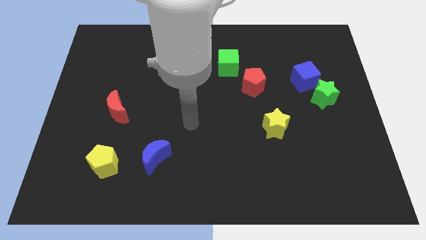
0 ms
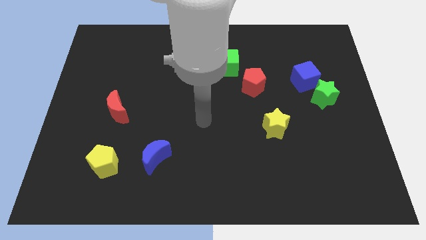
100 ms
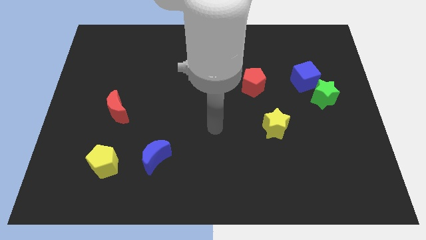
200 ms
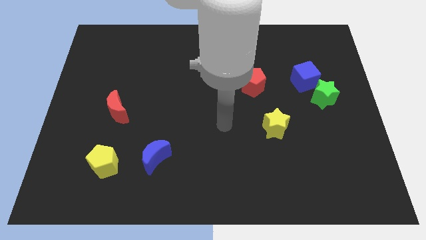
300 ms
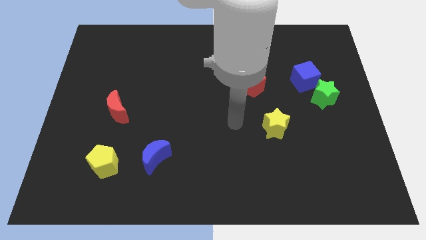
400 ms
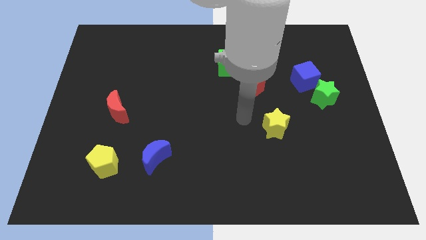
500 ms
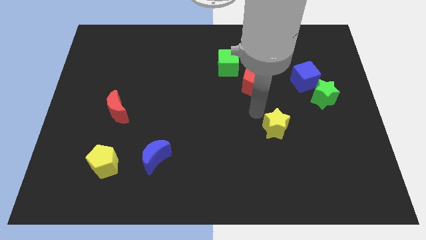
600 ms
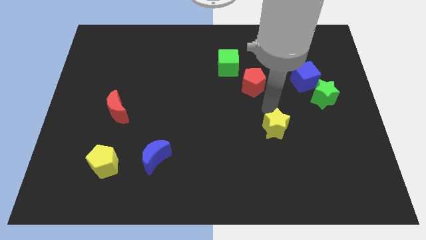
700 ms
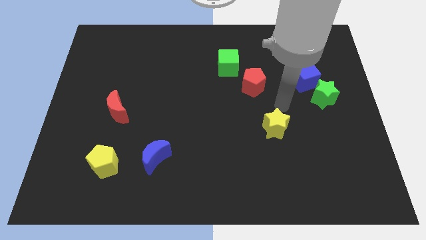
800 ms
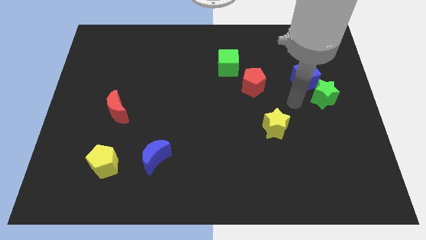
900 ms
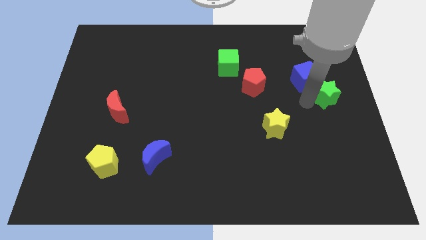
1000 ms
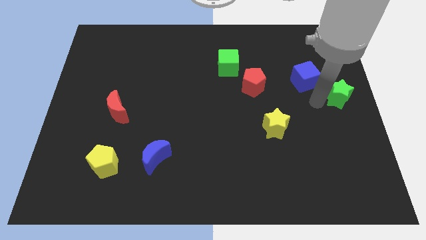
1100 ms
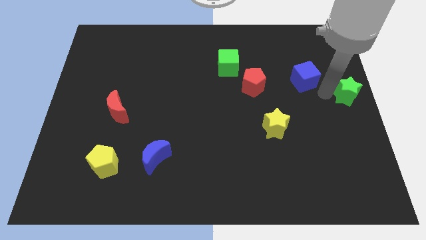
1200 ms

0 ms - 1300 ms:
move the blue cube away from the green star

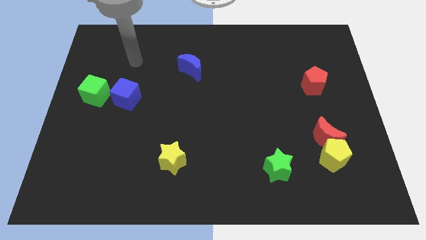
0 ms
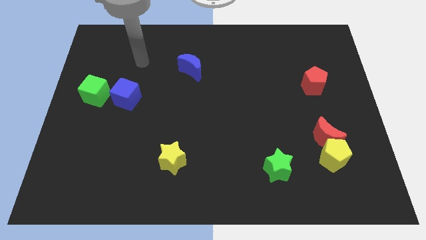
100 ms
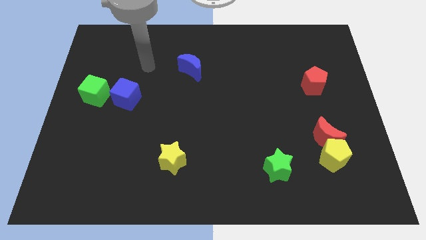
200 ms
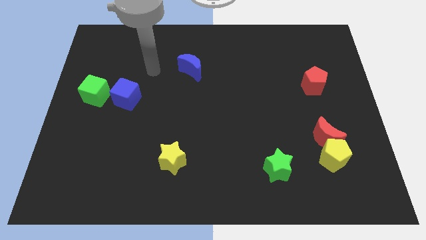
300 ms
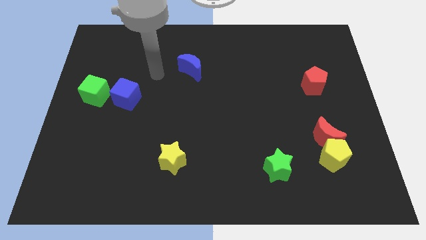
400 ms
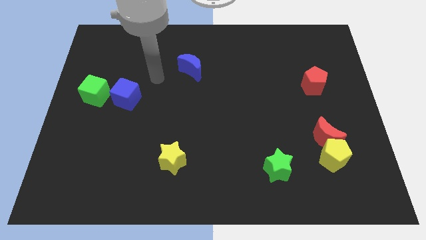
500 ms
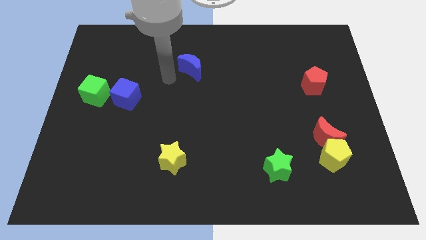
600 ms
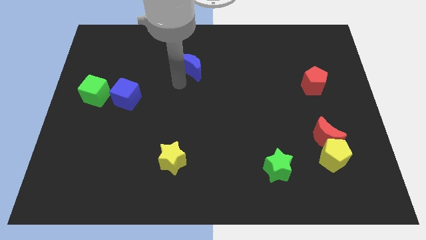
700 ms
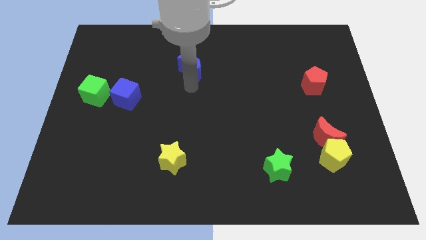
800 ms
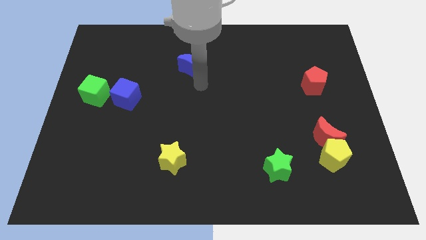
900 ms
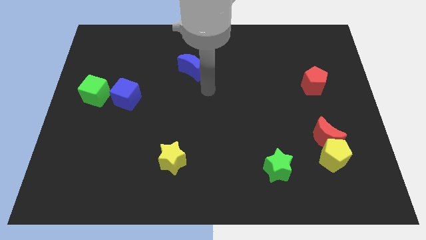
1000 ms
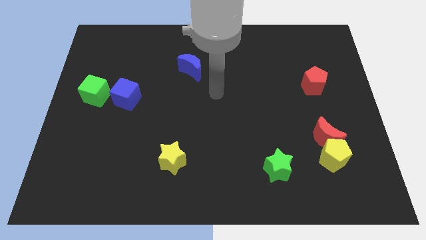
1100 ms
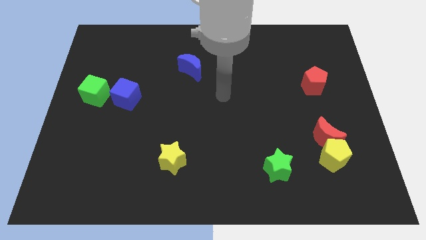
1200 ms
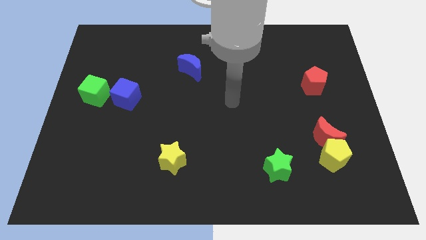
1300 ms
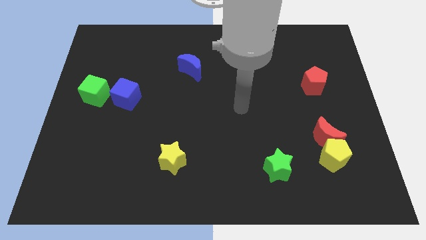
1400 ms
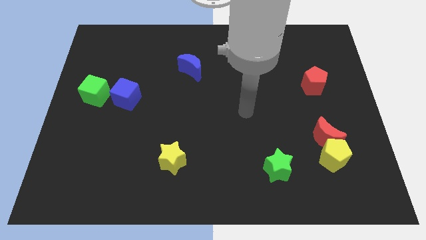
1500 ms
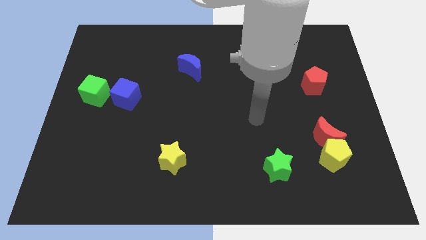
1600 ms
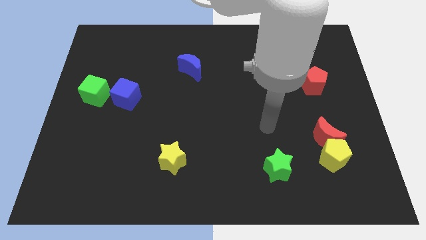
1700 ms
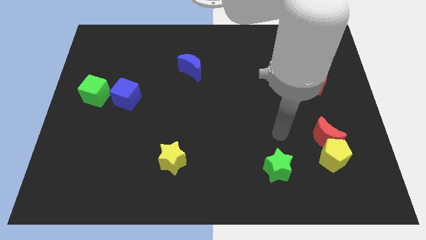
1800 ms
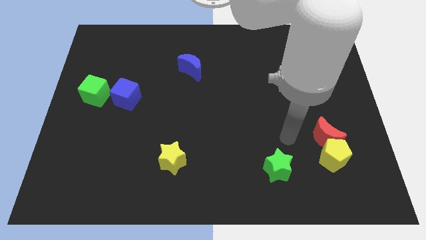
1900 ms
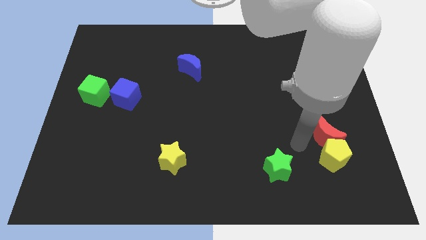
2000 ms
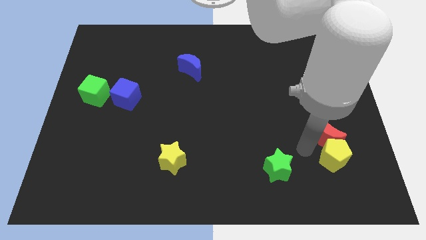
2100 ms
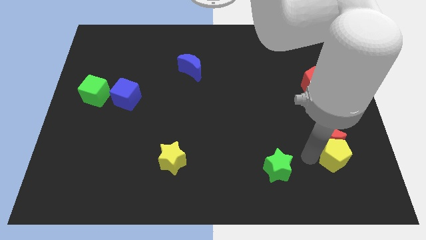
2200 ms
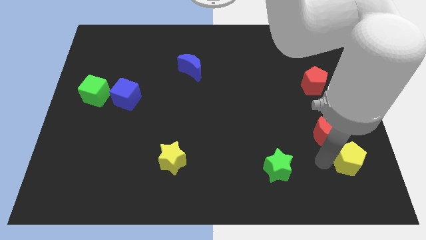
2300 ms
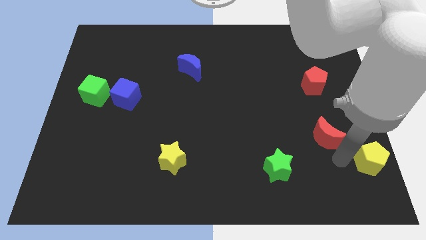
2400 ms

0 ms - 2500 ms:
move the red moon away from the yellow pentagon

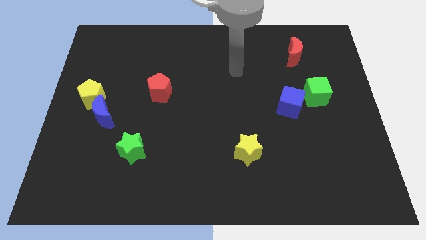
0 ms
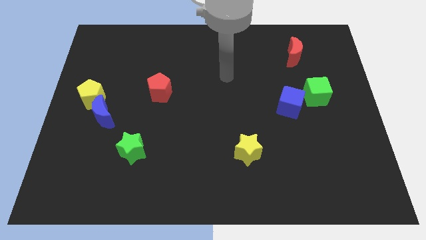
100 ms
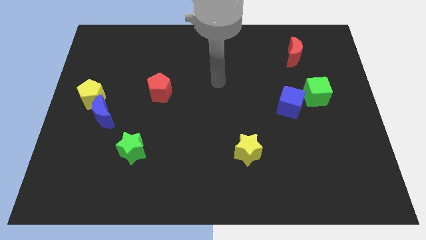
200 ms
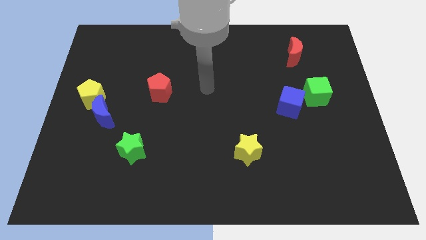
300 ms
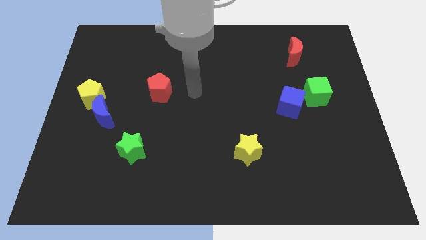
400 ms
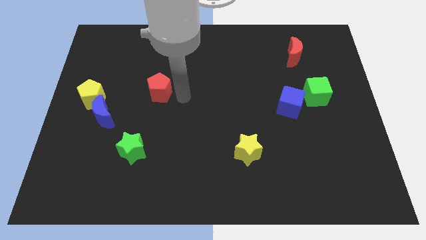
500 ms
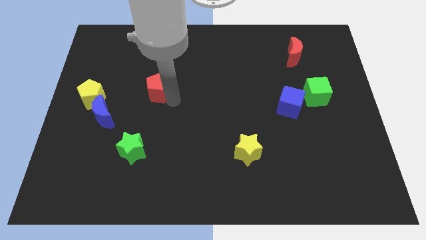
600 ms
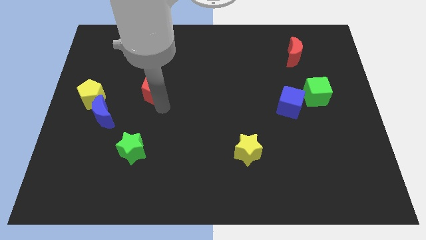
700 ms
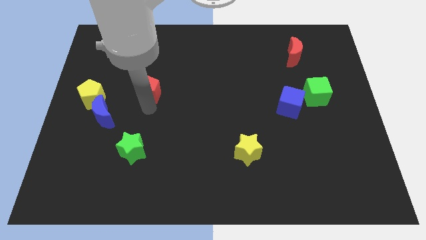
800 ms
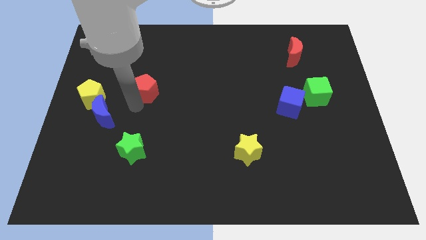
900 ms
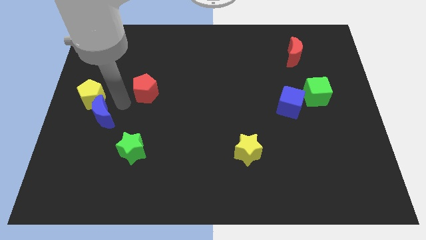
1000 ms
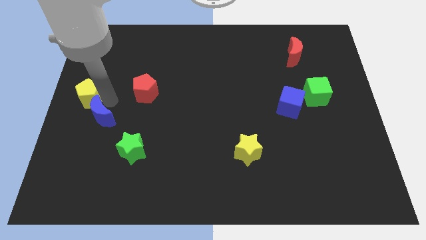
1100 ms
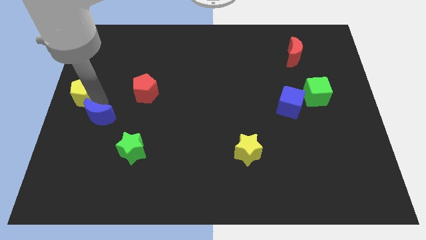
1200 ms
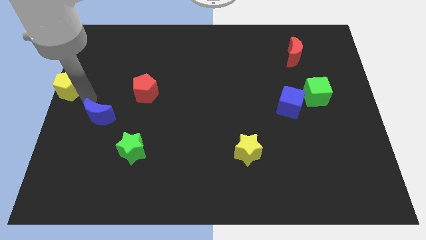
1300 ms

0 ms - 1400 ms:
move the blue moon away from the yellow pentagon

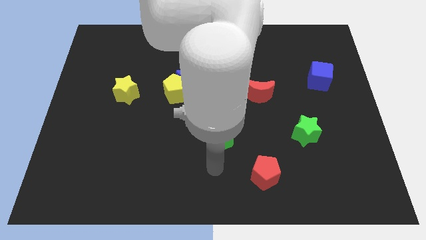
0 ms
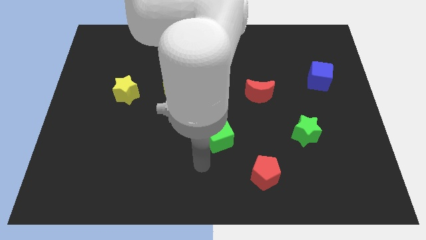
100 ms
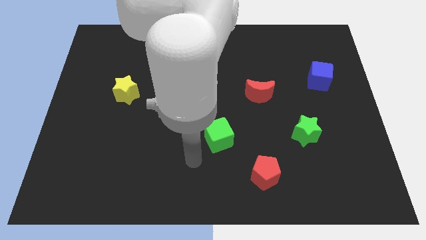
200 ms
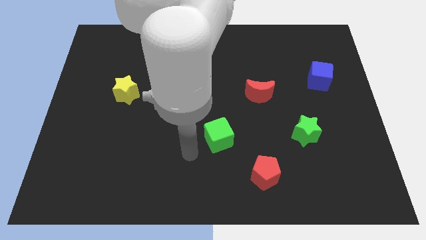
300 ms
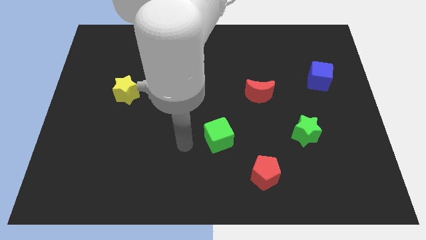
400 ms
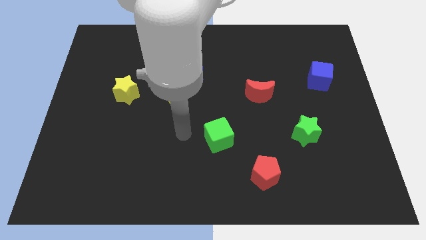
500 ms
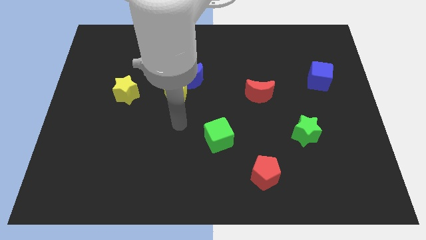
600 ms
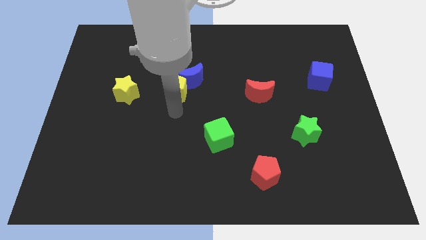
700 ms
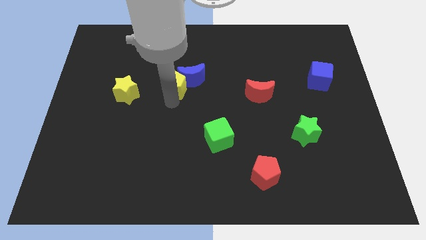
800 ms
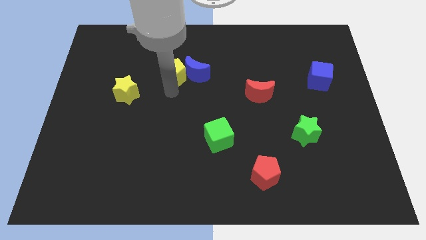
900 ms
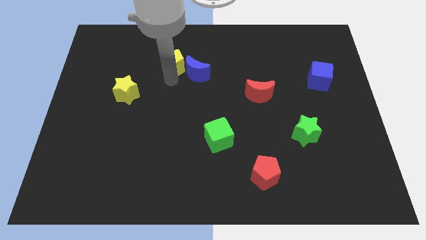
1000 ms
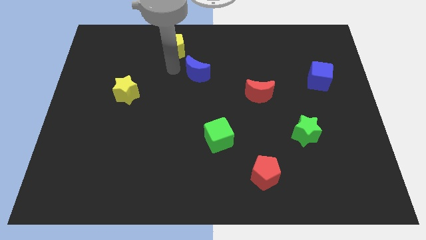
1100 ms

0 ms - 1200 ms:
separate the blue moon from the yellow pentagon

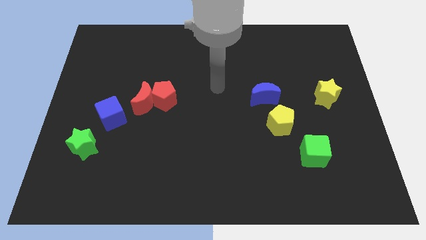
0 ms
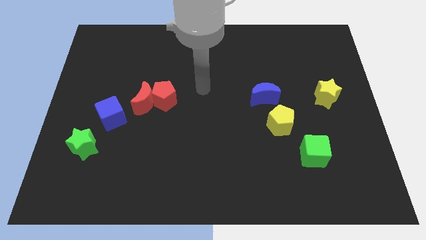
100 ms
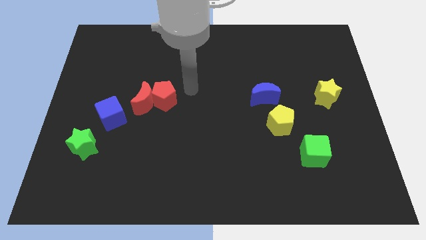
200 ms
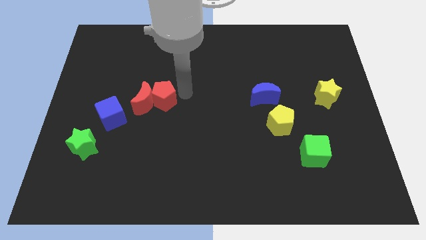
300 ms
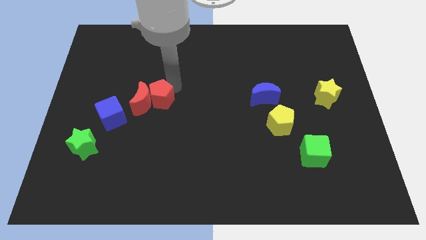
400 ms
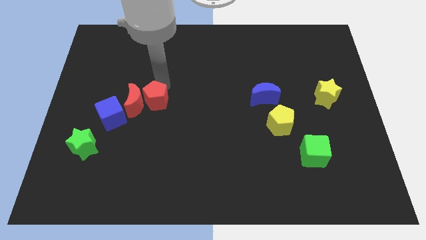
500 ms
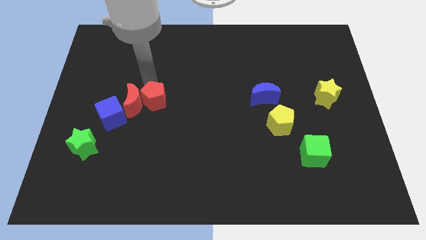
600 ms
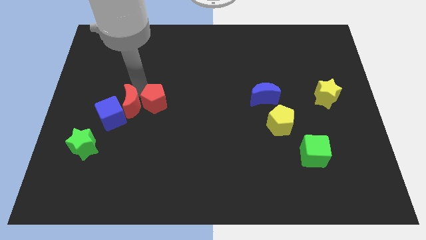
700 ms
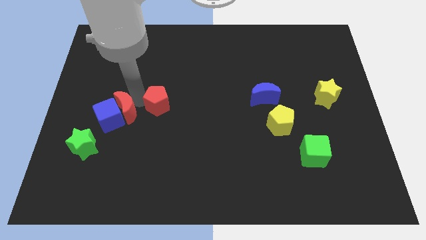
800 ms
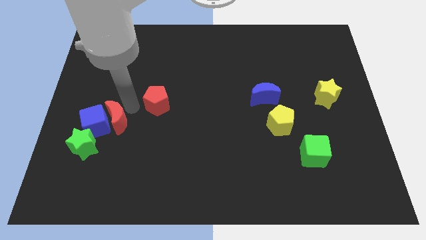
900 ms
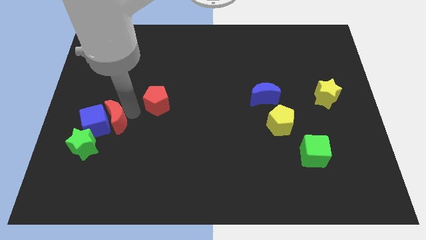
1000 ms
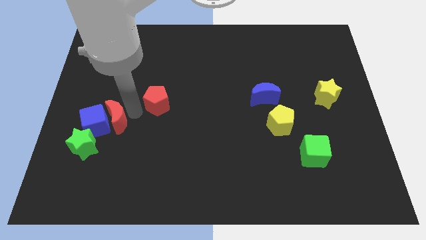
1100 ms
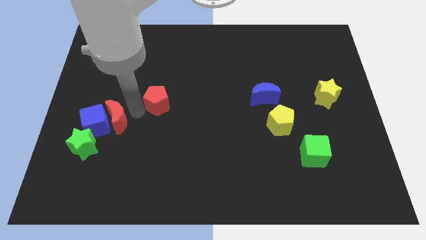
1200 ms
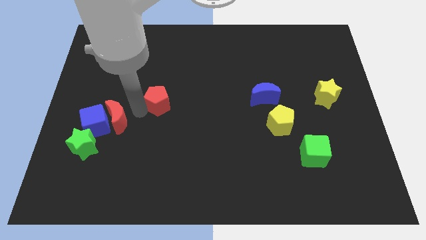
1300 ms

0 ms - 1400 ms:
separate the red pentagon from the red moon

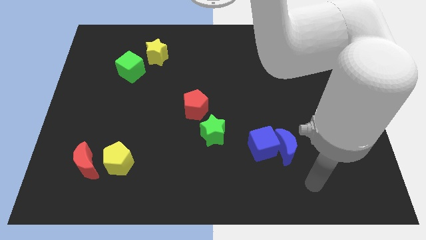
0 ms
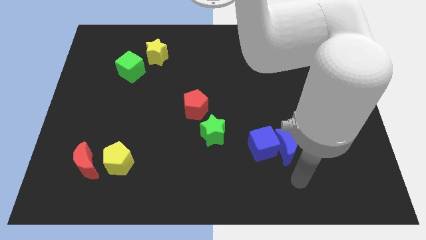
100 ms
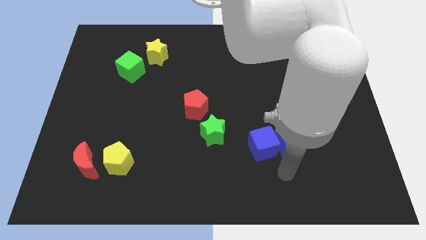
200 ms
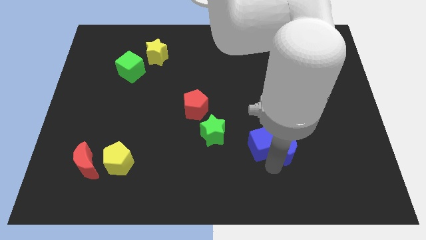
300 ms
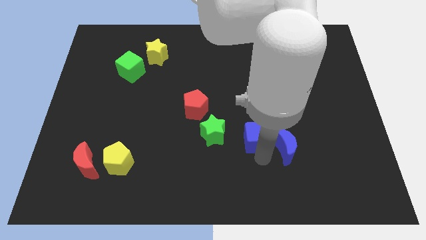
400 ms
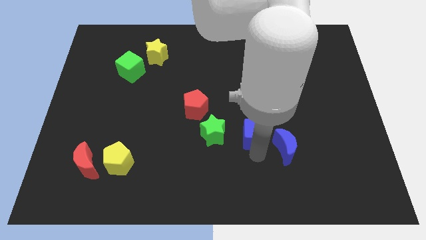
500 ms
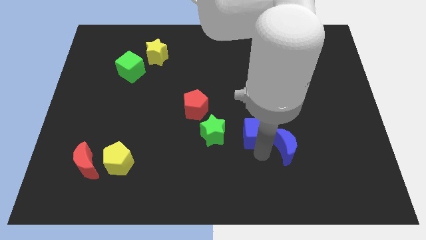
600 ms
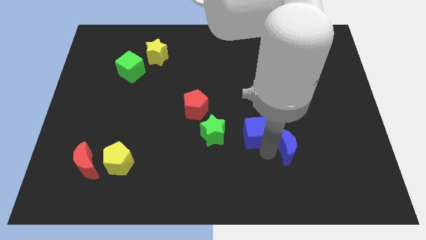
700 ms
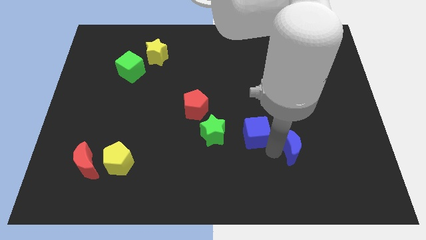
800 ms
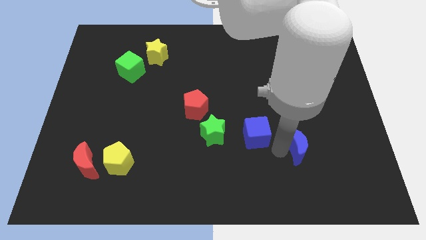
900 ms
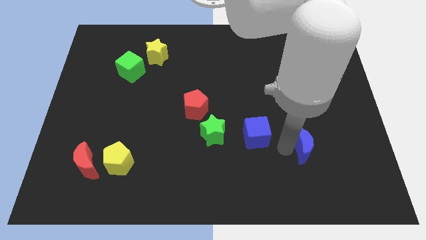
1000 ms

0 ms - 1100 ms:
separate the blue moon from the blue cube

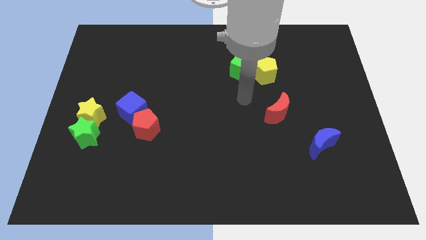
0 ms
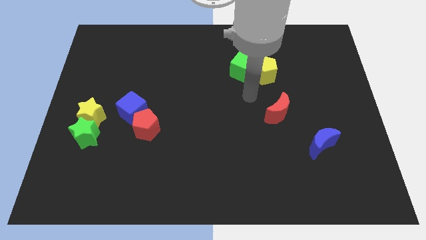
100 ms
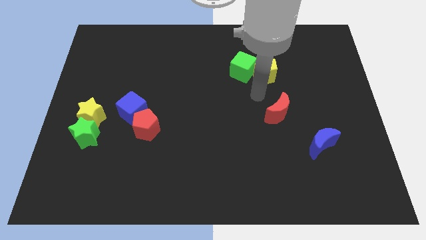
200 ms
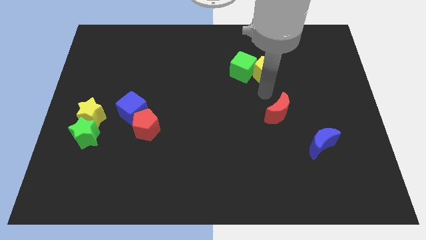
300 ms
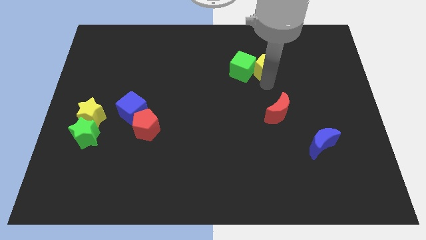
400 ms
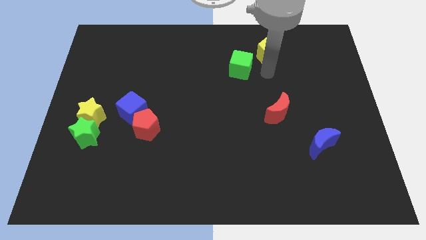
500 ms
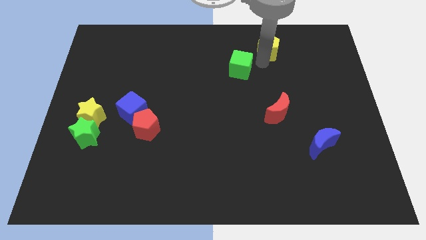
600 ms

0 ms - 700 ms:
pull the green cube apart from the yellow pentagon
